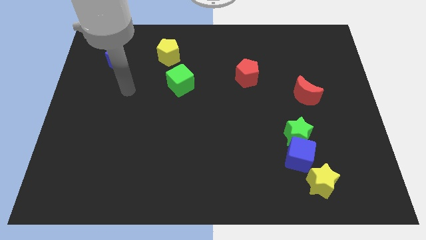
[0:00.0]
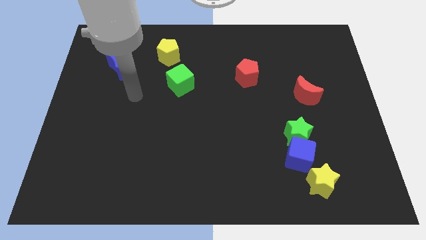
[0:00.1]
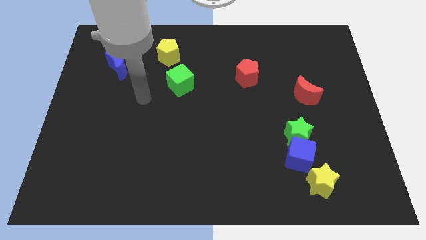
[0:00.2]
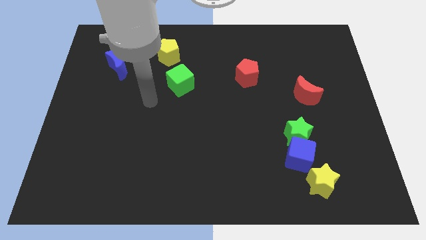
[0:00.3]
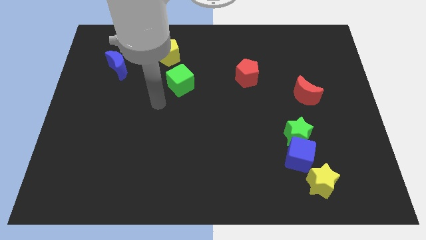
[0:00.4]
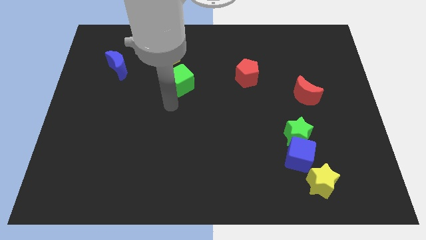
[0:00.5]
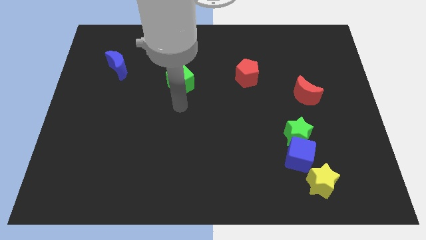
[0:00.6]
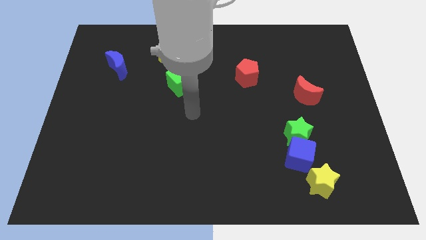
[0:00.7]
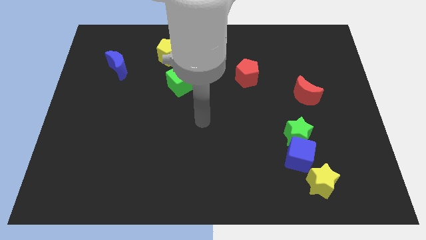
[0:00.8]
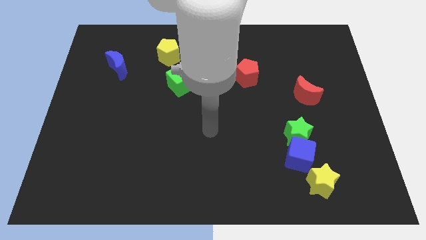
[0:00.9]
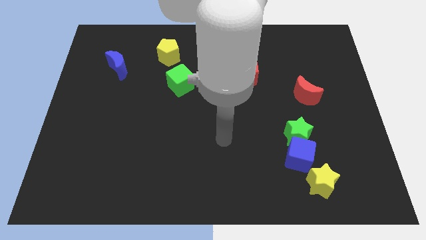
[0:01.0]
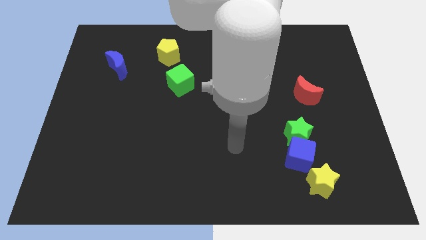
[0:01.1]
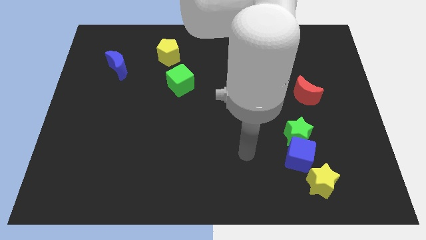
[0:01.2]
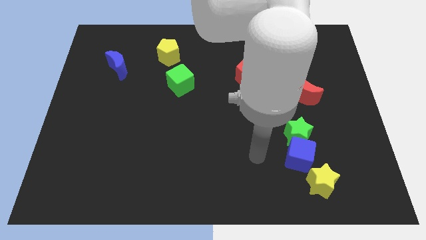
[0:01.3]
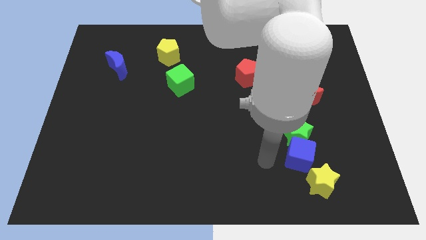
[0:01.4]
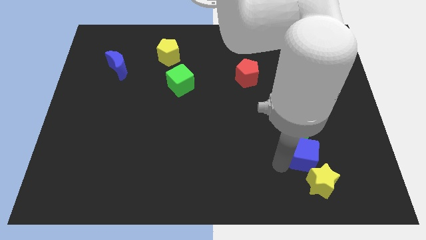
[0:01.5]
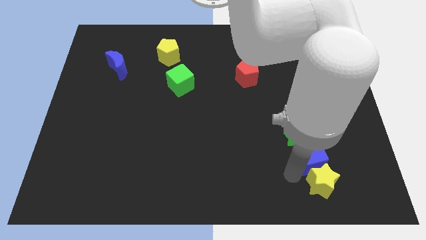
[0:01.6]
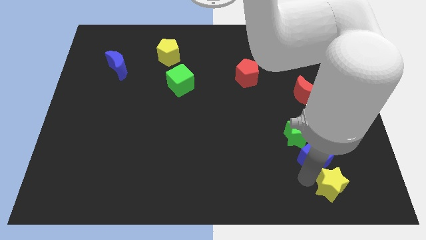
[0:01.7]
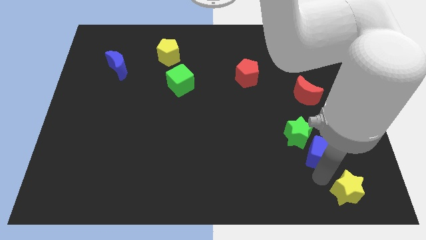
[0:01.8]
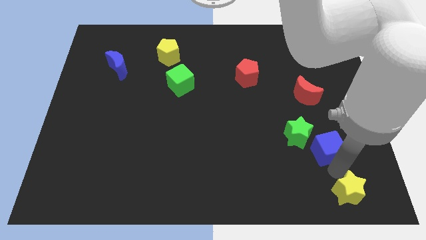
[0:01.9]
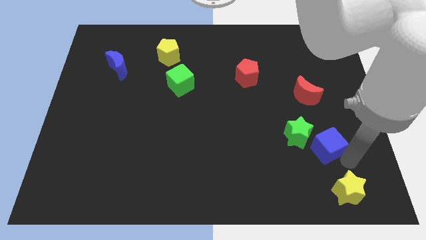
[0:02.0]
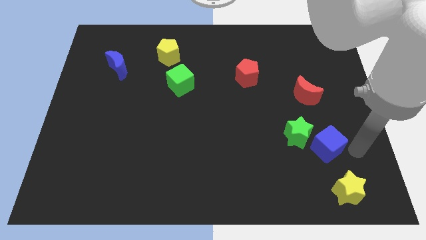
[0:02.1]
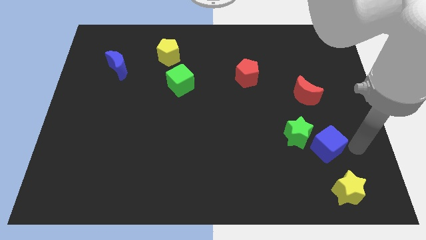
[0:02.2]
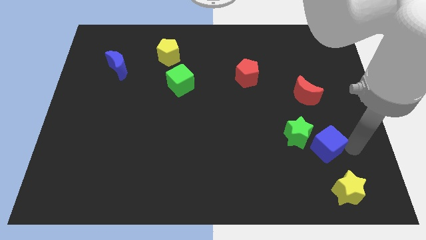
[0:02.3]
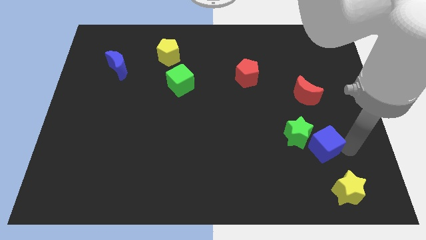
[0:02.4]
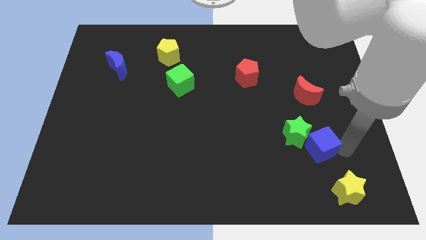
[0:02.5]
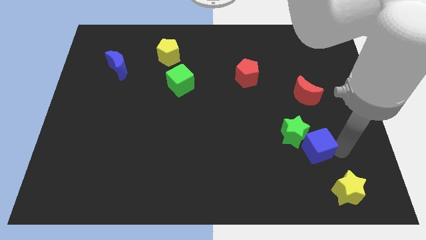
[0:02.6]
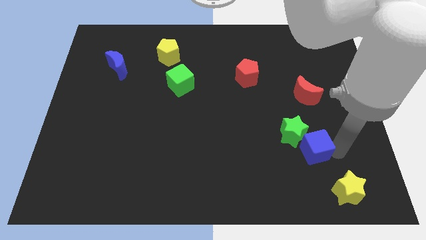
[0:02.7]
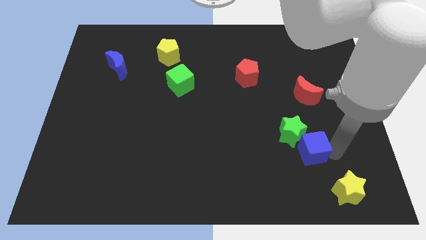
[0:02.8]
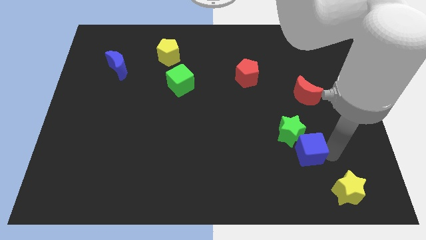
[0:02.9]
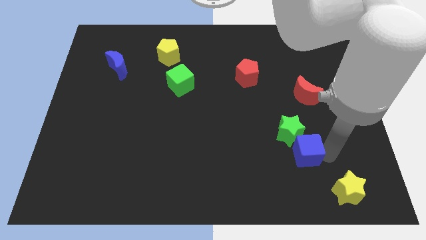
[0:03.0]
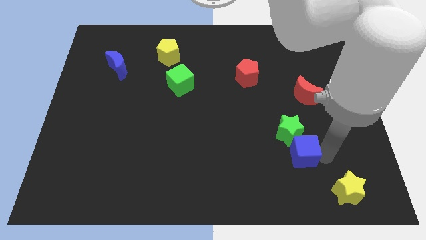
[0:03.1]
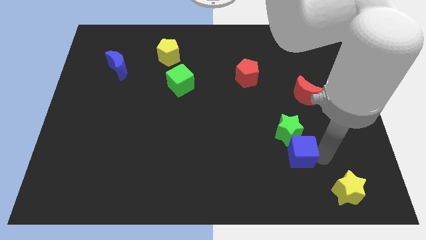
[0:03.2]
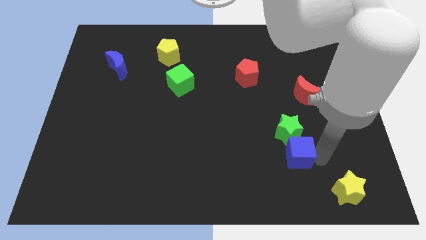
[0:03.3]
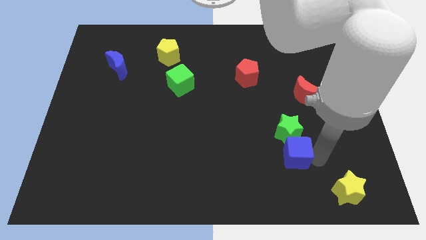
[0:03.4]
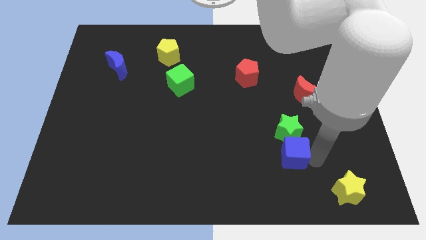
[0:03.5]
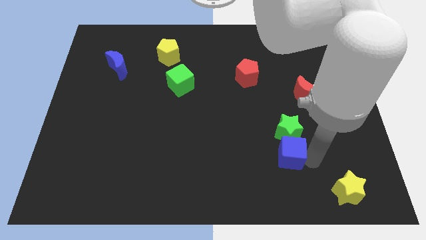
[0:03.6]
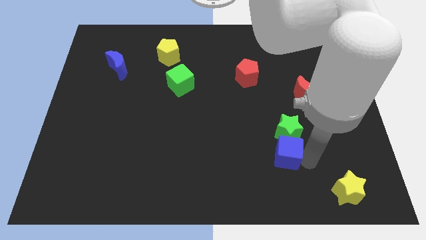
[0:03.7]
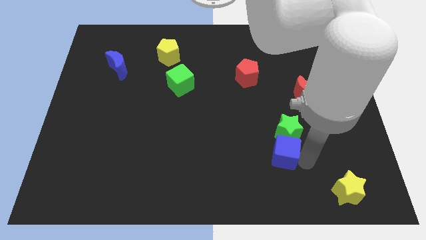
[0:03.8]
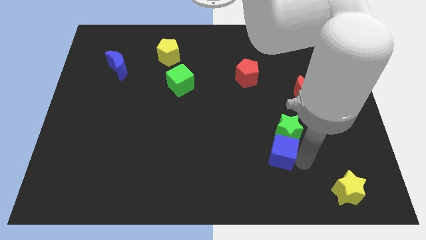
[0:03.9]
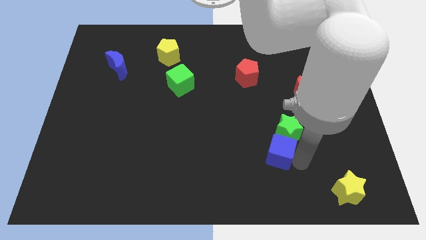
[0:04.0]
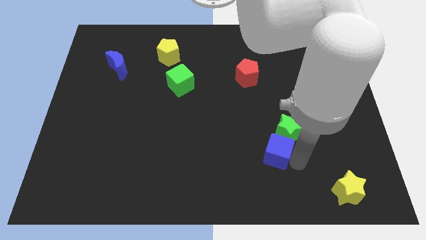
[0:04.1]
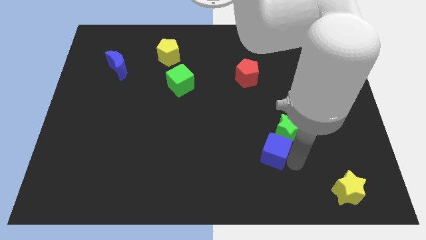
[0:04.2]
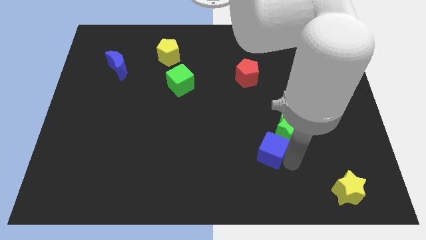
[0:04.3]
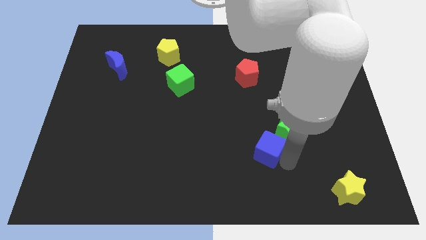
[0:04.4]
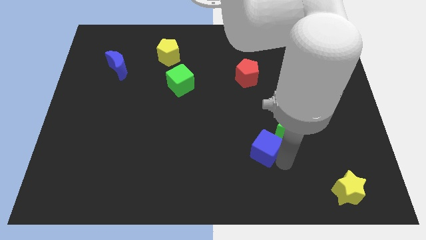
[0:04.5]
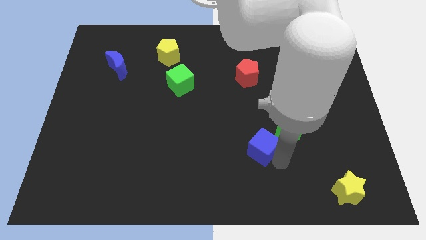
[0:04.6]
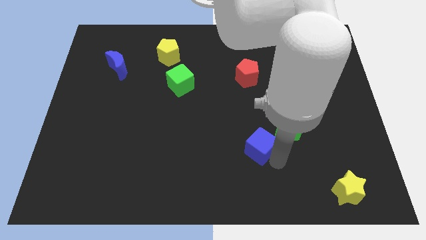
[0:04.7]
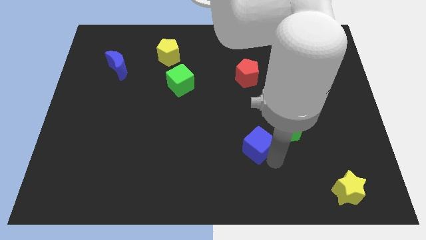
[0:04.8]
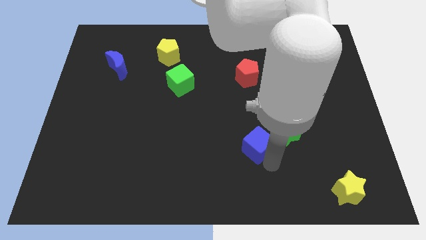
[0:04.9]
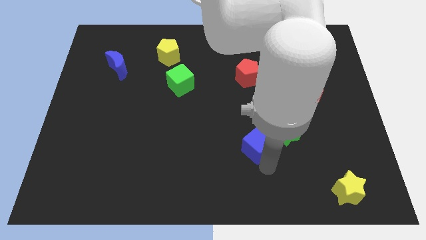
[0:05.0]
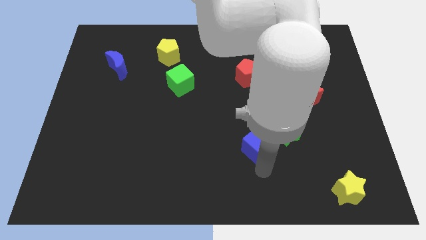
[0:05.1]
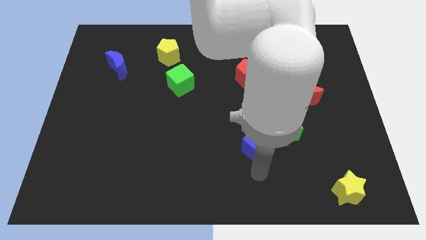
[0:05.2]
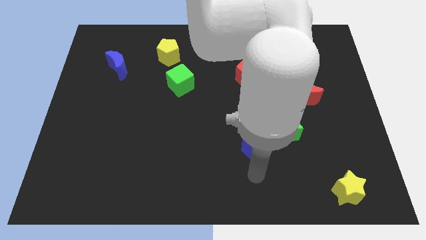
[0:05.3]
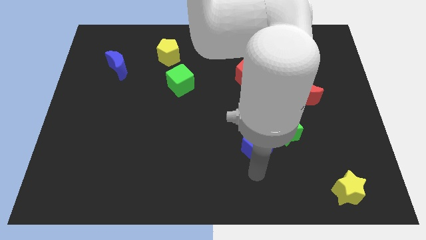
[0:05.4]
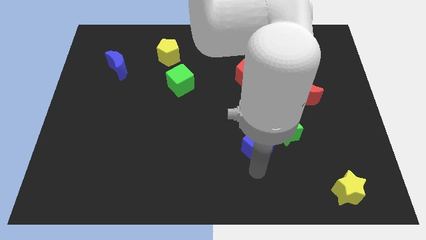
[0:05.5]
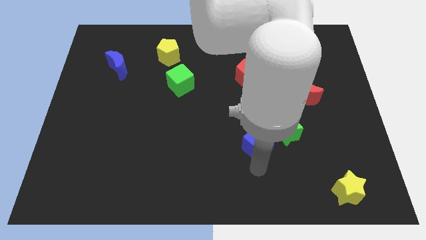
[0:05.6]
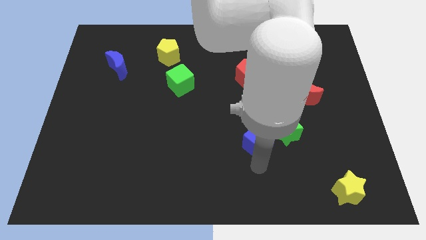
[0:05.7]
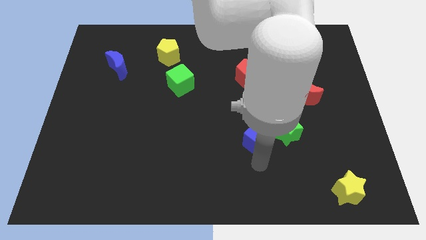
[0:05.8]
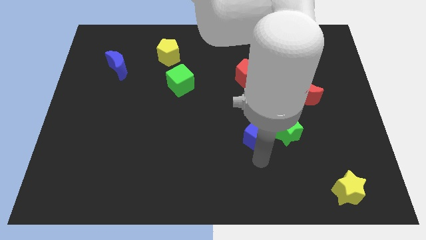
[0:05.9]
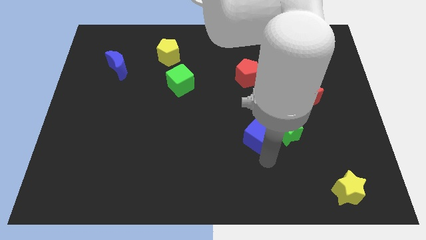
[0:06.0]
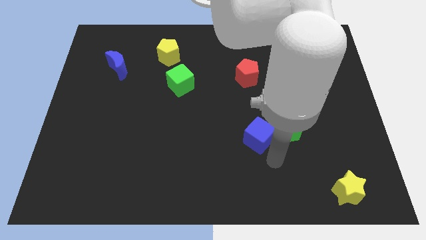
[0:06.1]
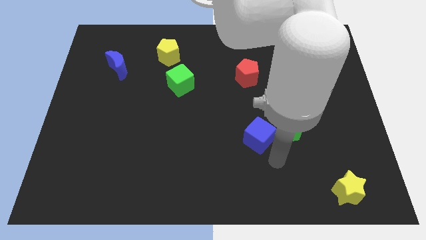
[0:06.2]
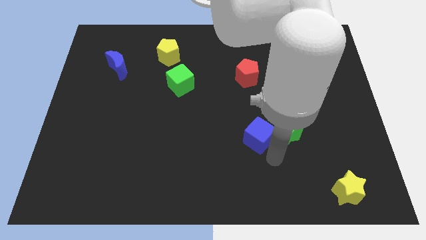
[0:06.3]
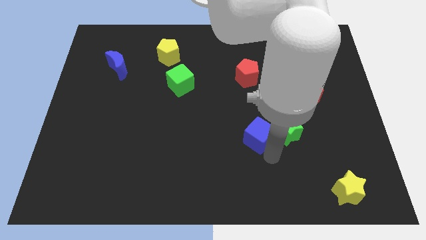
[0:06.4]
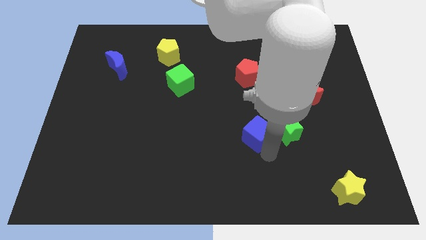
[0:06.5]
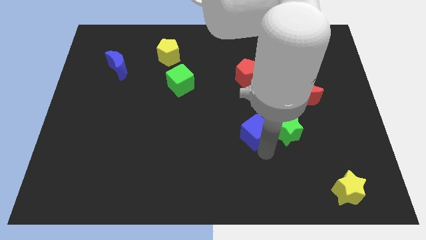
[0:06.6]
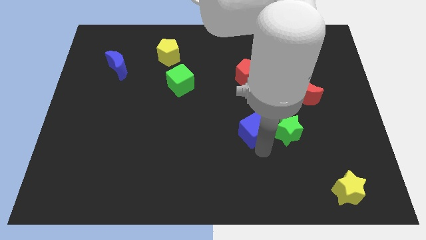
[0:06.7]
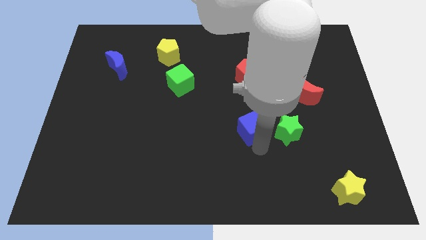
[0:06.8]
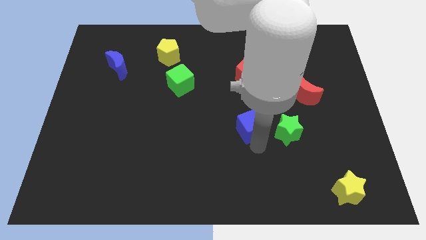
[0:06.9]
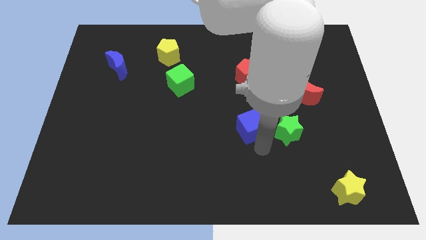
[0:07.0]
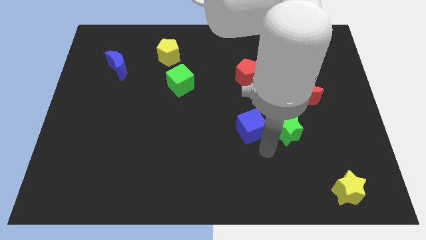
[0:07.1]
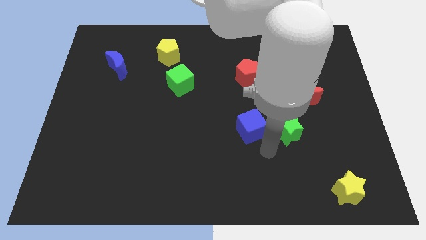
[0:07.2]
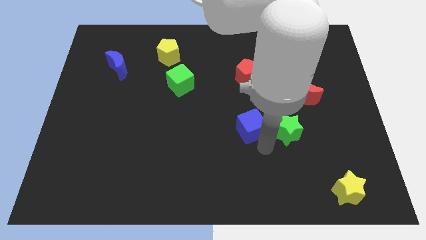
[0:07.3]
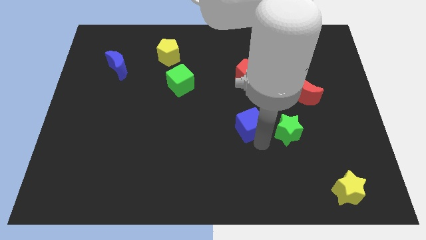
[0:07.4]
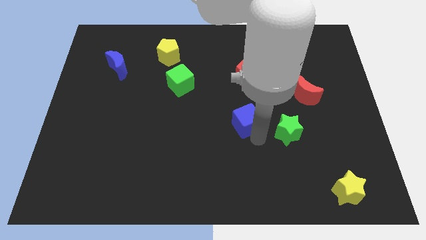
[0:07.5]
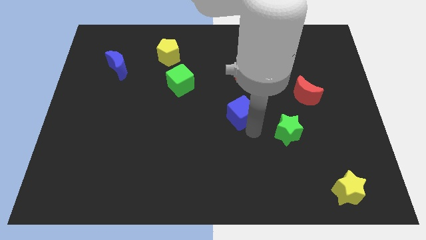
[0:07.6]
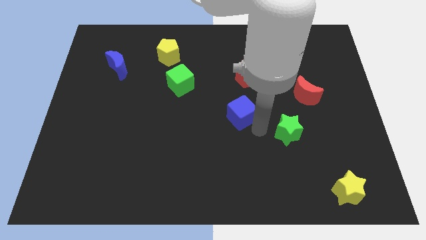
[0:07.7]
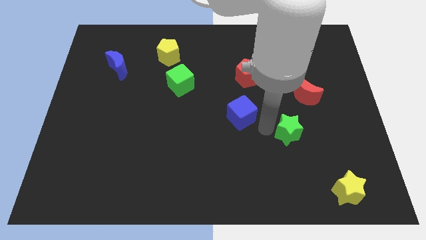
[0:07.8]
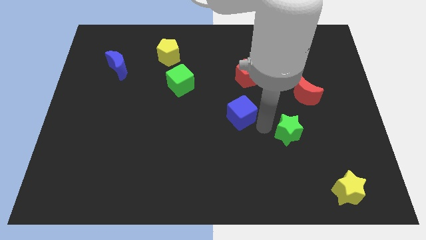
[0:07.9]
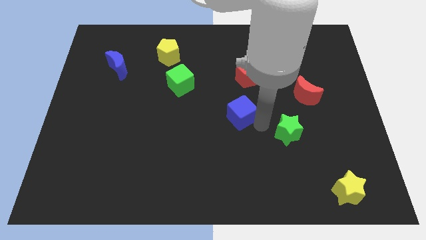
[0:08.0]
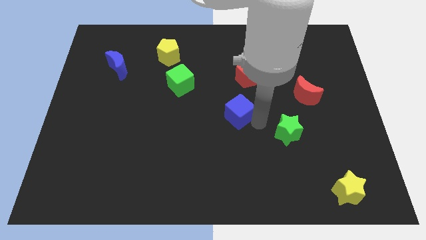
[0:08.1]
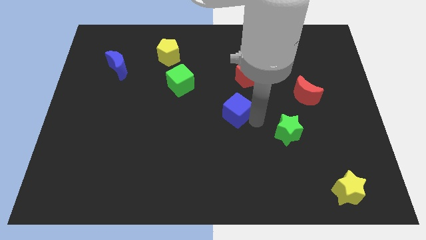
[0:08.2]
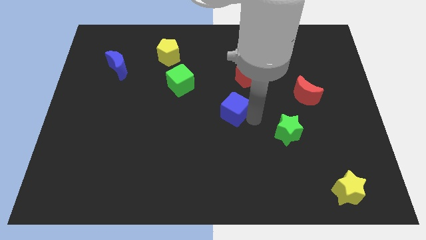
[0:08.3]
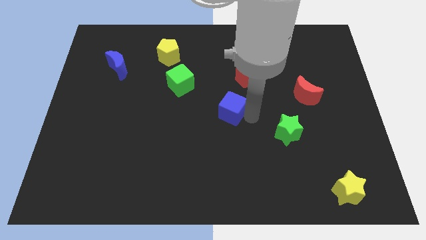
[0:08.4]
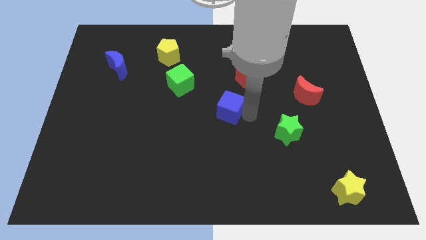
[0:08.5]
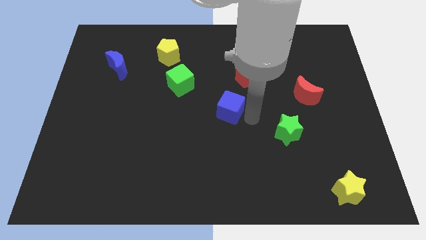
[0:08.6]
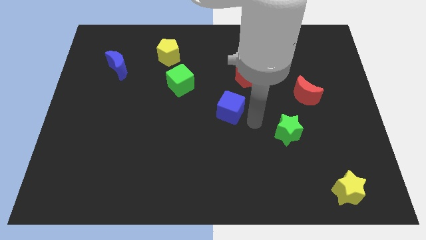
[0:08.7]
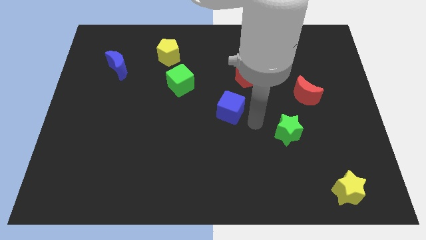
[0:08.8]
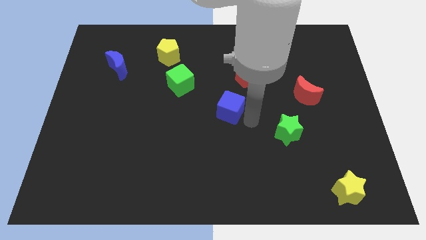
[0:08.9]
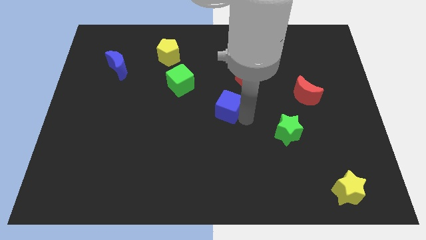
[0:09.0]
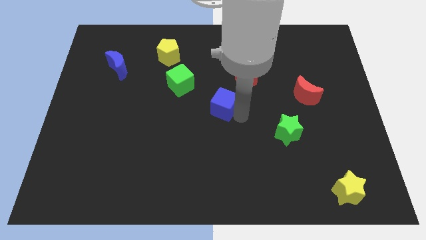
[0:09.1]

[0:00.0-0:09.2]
move the blue cube upwards and to the left diagonally
